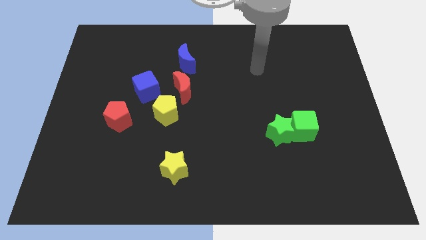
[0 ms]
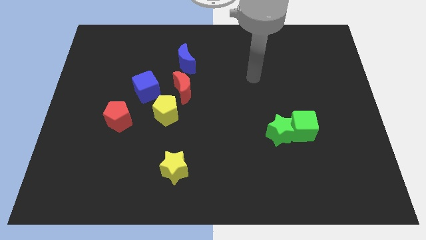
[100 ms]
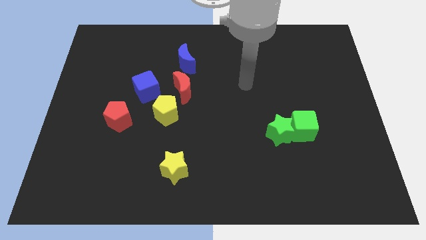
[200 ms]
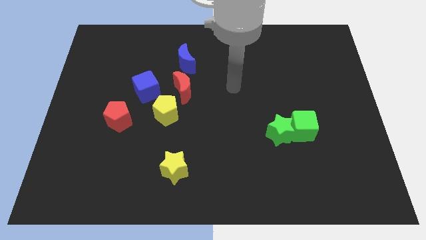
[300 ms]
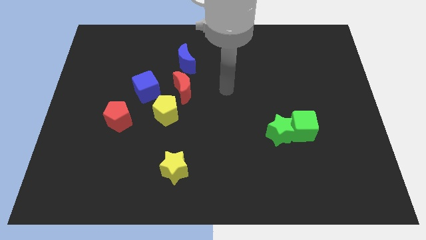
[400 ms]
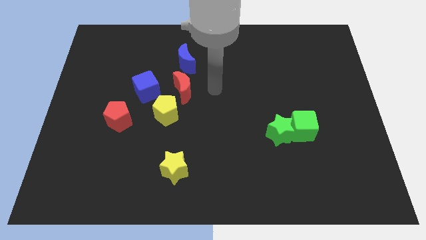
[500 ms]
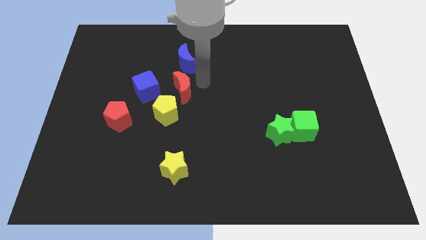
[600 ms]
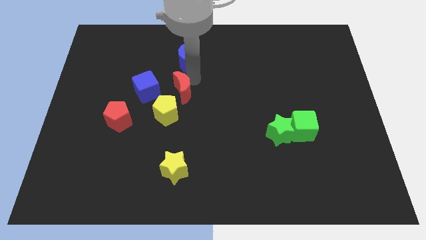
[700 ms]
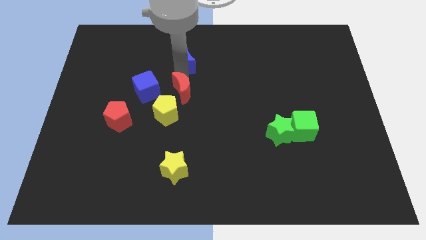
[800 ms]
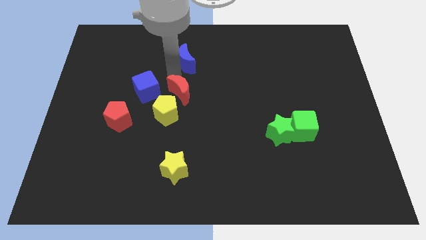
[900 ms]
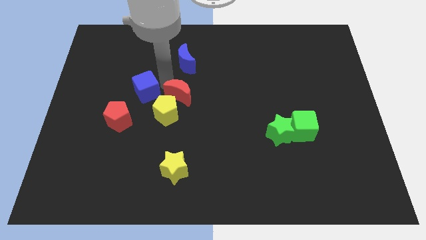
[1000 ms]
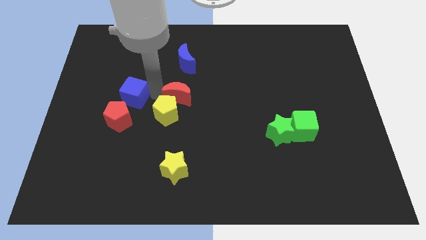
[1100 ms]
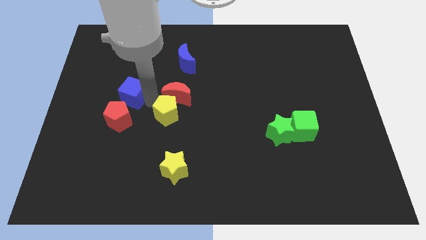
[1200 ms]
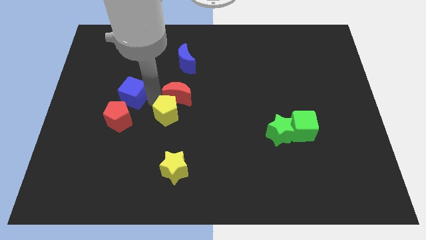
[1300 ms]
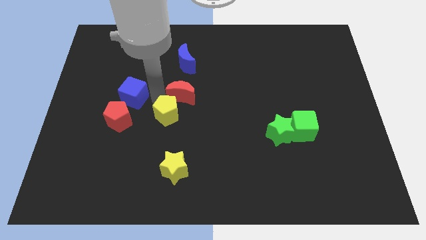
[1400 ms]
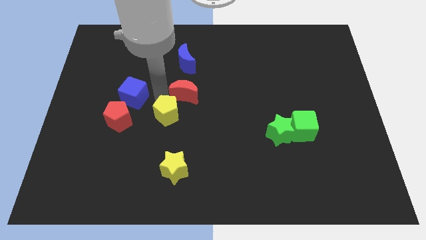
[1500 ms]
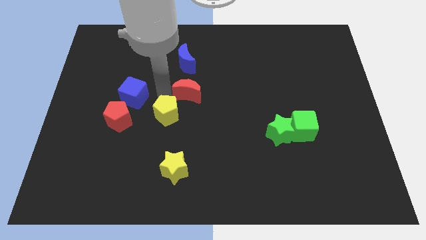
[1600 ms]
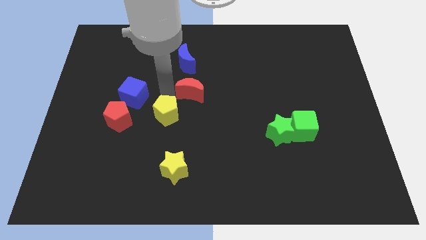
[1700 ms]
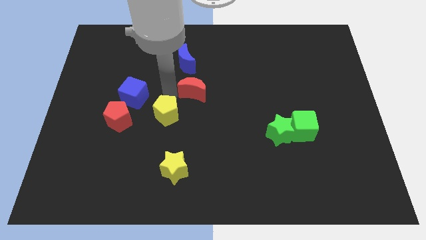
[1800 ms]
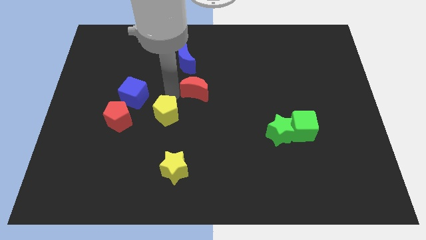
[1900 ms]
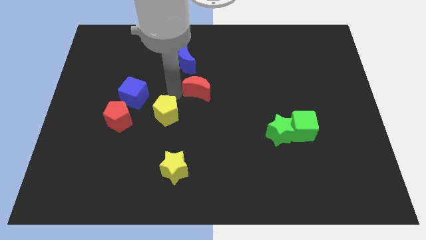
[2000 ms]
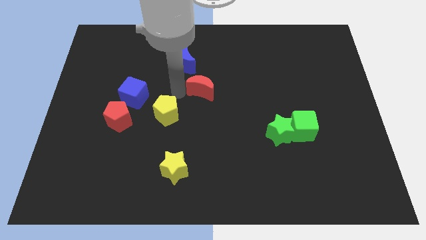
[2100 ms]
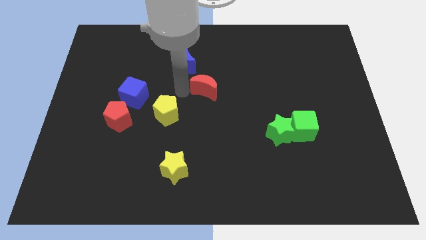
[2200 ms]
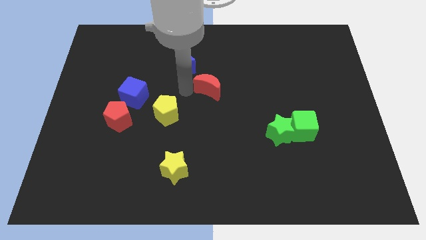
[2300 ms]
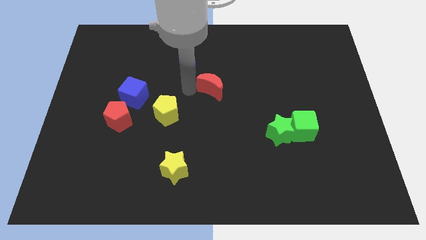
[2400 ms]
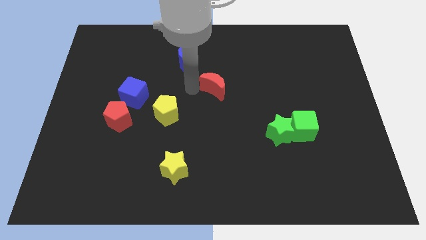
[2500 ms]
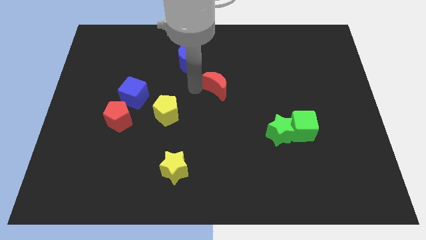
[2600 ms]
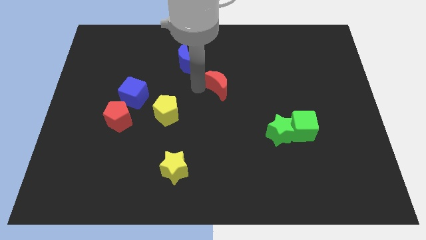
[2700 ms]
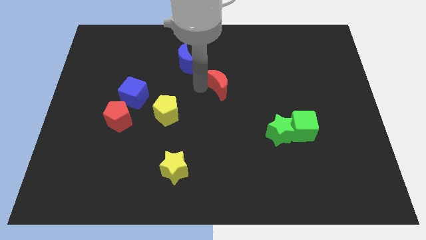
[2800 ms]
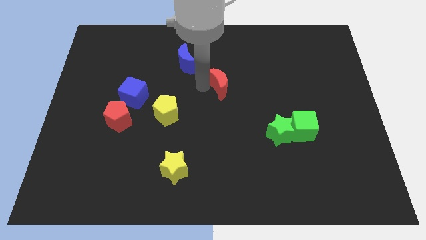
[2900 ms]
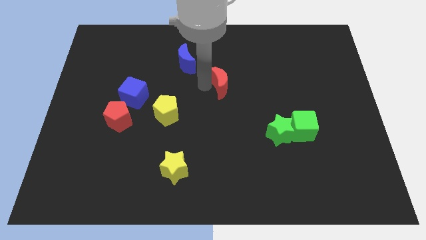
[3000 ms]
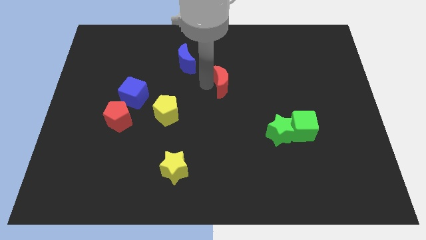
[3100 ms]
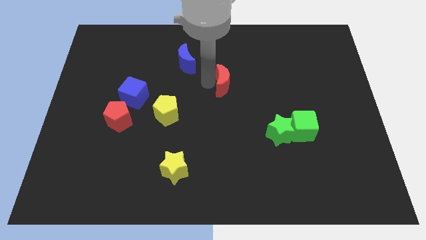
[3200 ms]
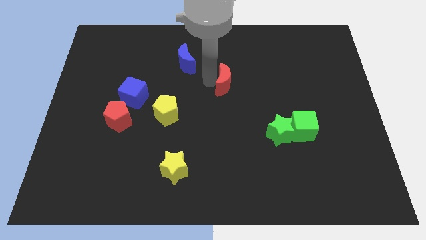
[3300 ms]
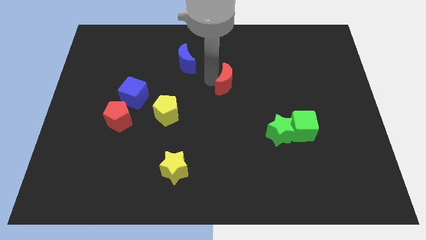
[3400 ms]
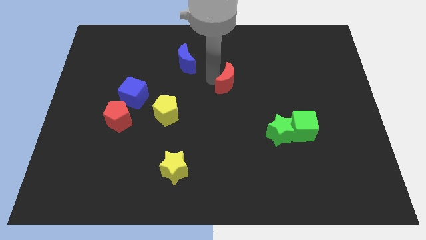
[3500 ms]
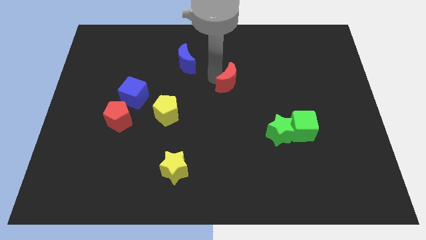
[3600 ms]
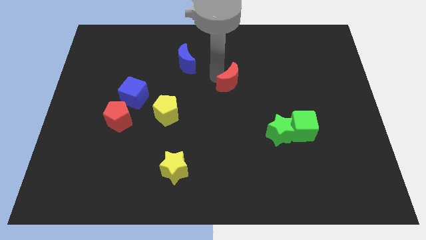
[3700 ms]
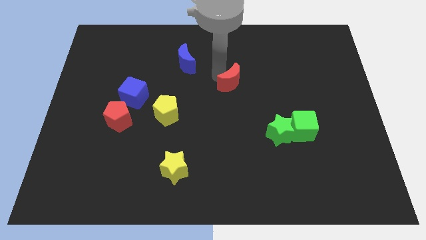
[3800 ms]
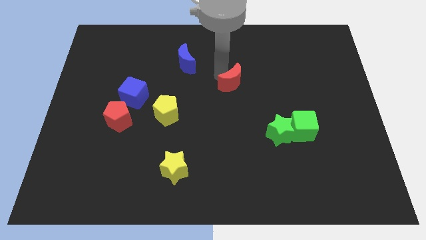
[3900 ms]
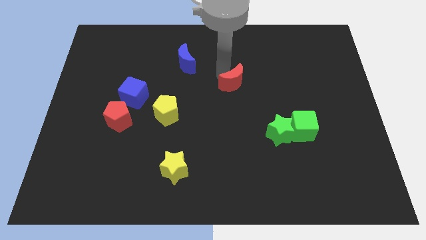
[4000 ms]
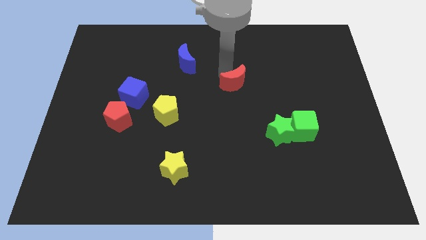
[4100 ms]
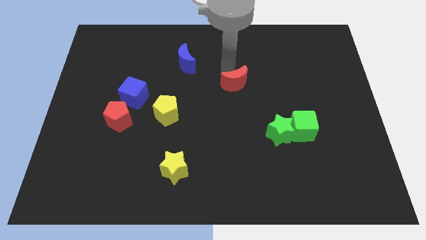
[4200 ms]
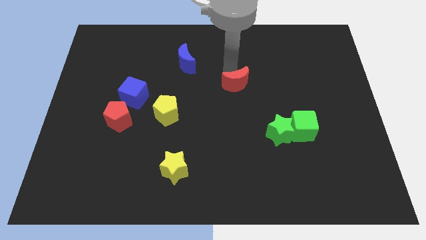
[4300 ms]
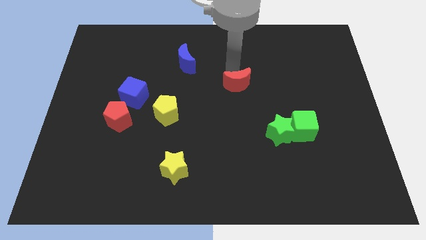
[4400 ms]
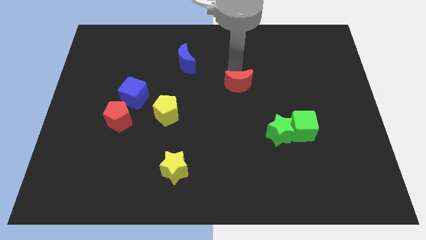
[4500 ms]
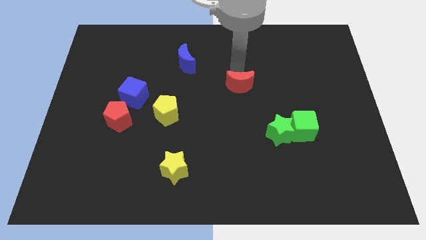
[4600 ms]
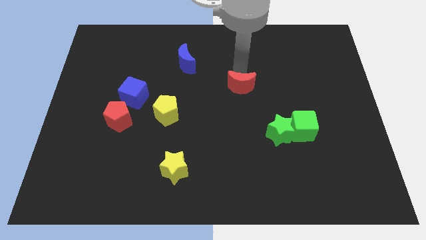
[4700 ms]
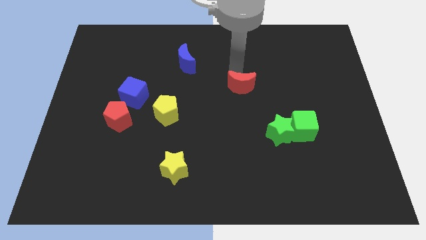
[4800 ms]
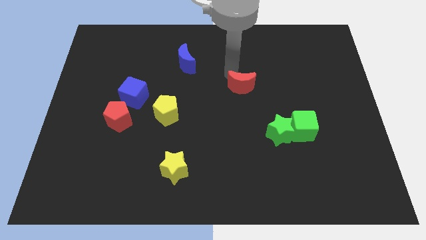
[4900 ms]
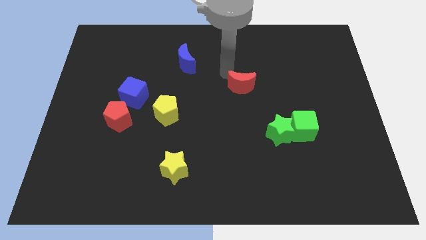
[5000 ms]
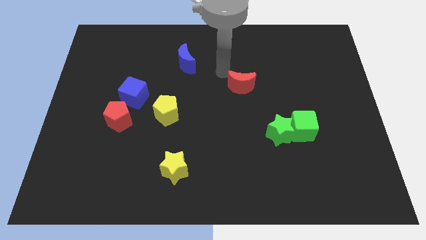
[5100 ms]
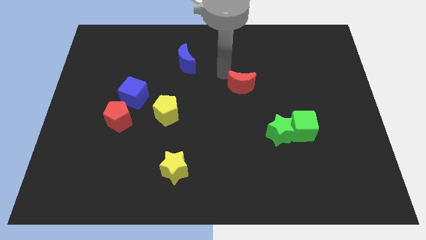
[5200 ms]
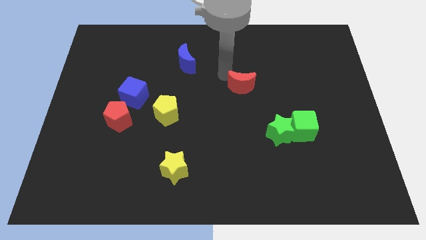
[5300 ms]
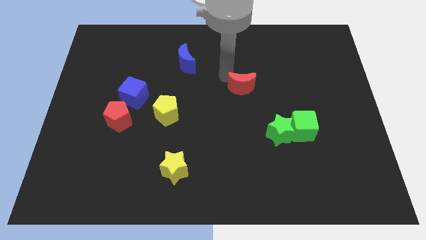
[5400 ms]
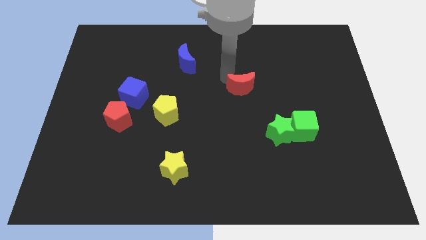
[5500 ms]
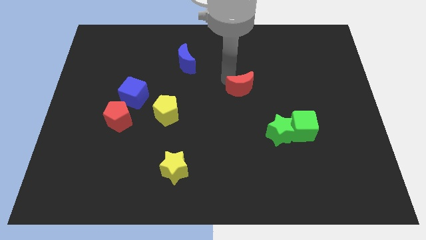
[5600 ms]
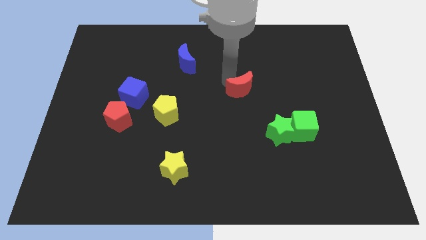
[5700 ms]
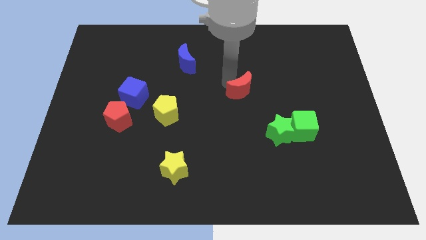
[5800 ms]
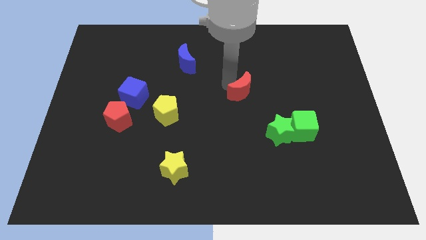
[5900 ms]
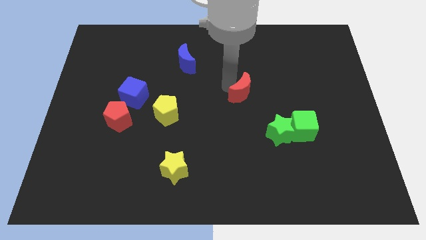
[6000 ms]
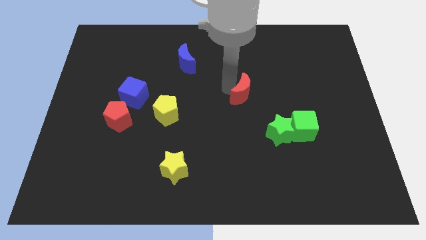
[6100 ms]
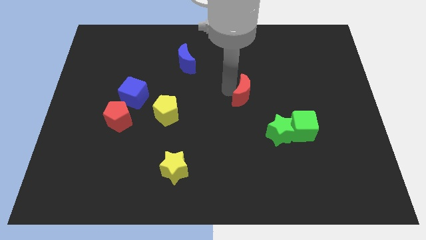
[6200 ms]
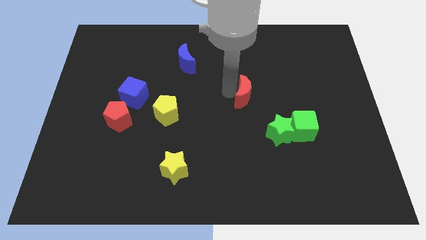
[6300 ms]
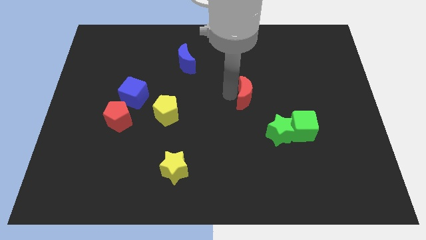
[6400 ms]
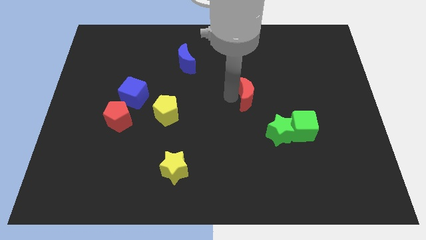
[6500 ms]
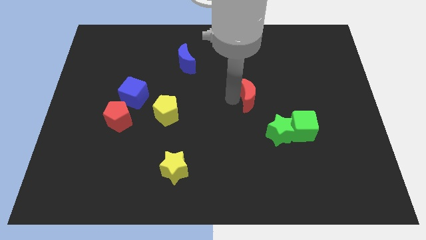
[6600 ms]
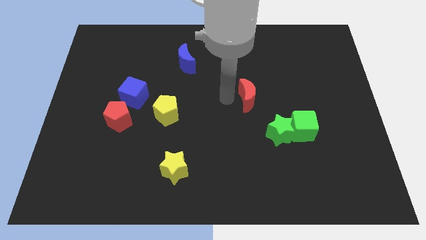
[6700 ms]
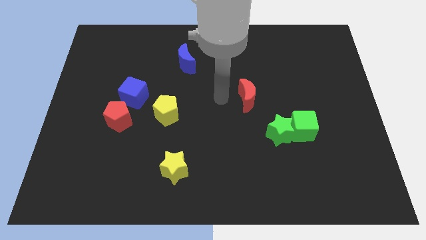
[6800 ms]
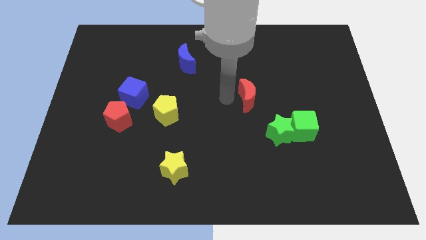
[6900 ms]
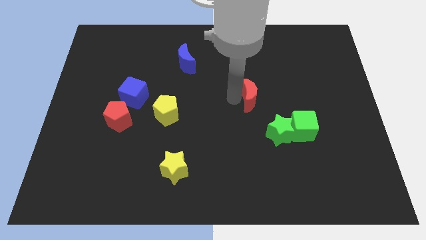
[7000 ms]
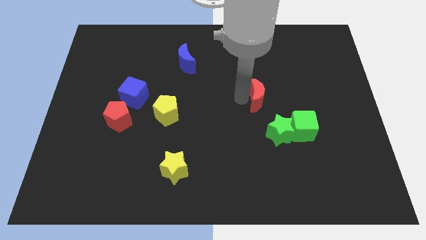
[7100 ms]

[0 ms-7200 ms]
move the red moon above the green star

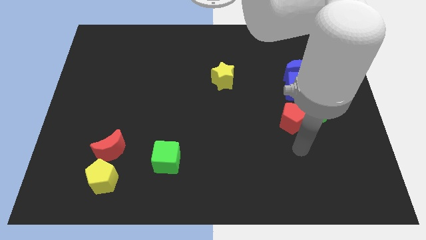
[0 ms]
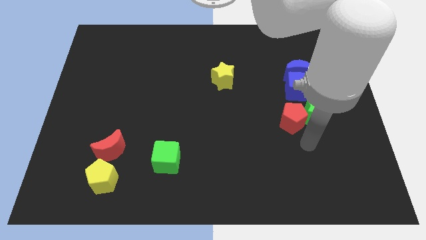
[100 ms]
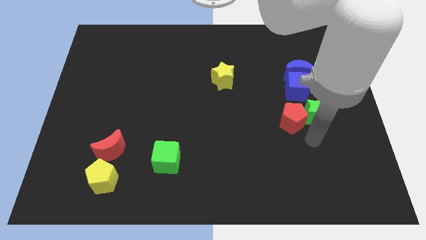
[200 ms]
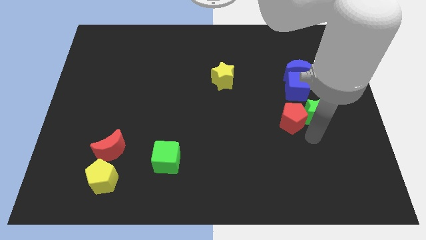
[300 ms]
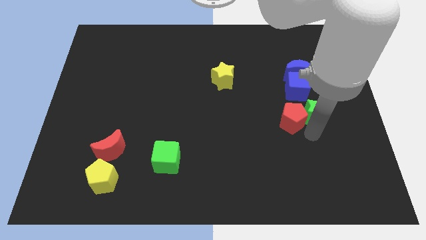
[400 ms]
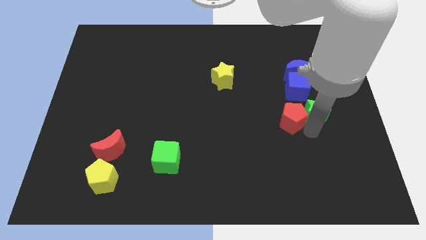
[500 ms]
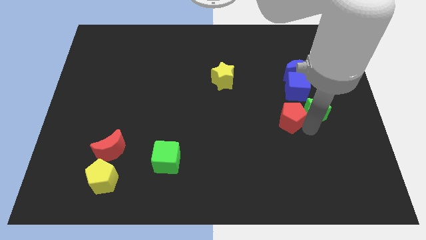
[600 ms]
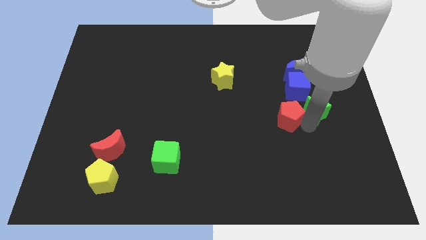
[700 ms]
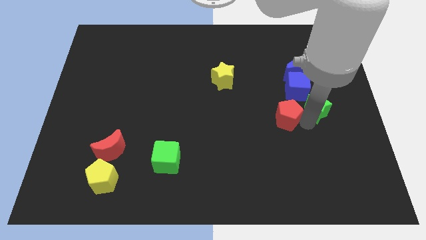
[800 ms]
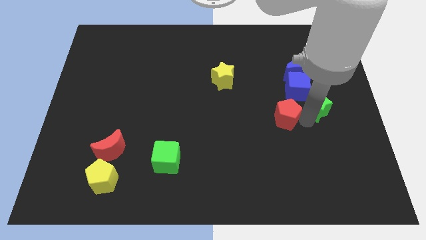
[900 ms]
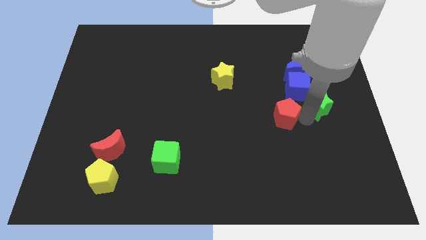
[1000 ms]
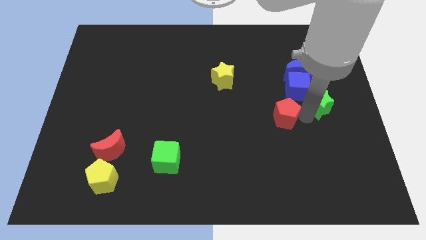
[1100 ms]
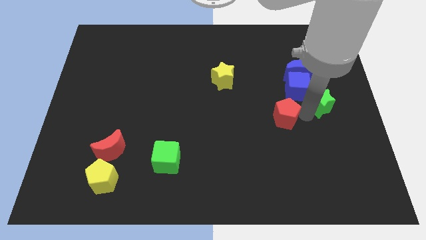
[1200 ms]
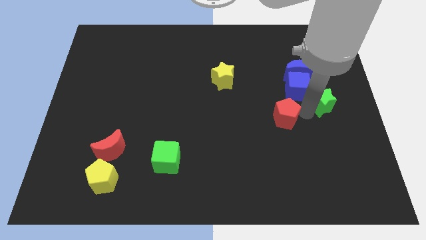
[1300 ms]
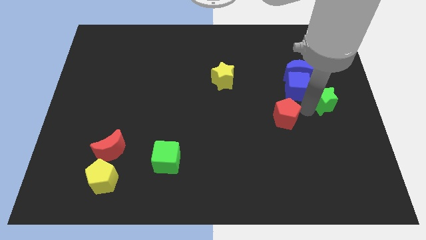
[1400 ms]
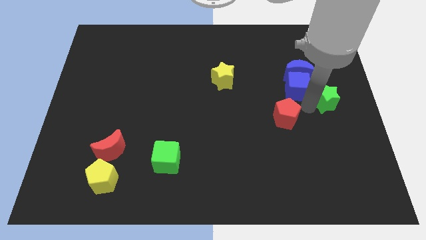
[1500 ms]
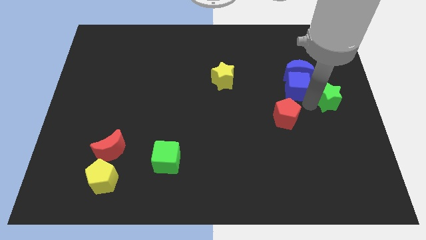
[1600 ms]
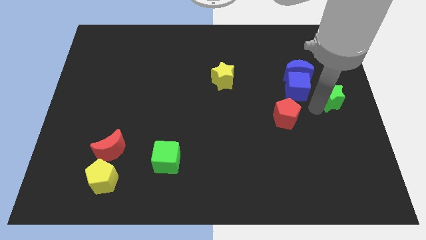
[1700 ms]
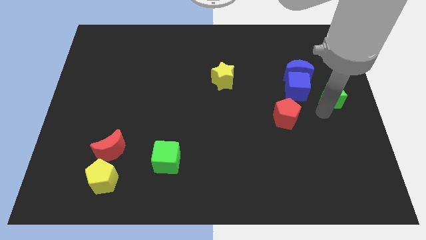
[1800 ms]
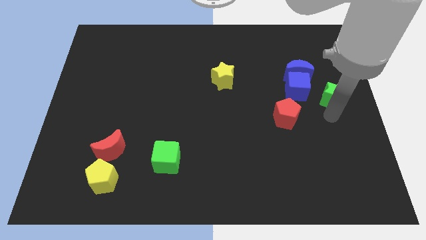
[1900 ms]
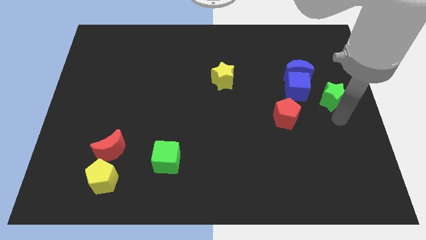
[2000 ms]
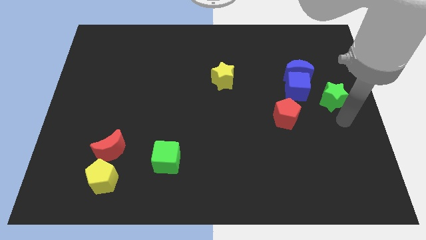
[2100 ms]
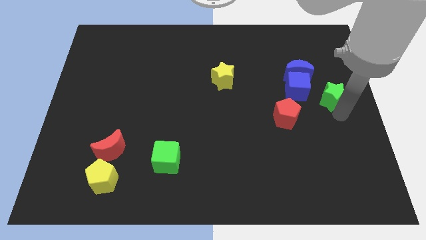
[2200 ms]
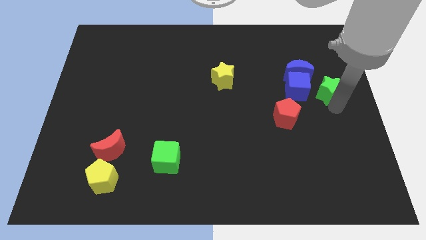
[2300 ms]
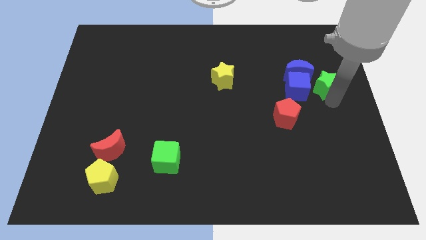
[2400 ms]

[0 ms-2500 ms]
push the green star to the top right side of the blue cube
